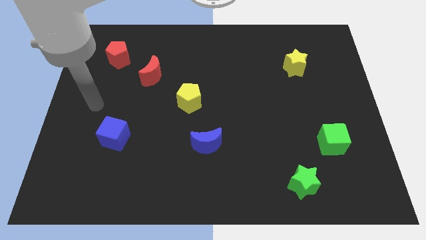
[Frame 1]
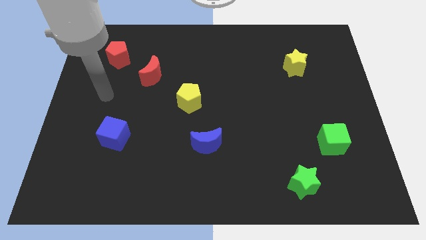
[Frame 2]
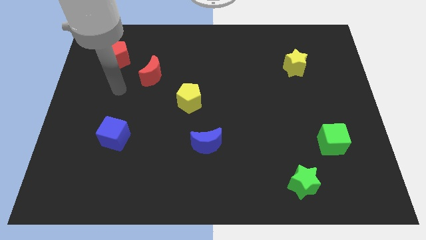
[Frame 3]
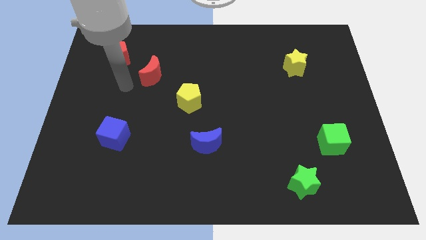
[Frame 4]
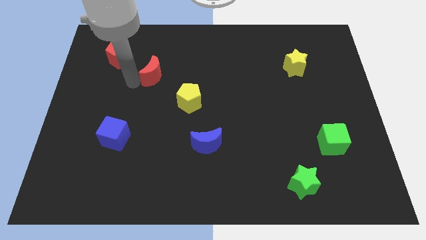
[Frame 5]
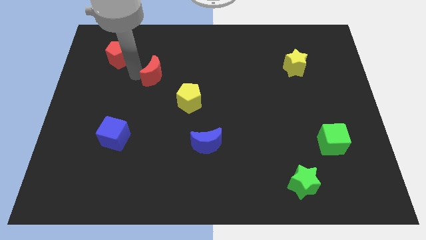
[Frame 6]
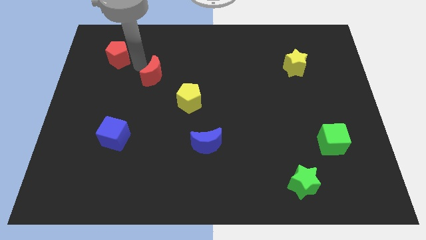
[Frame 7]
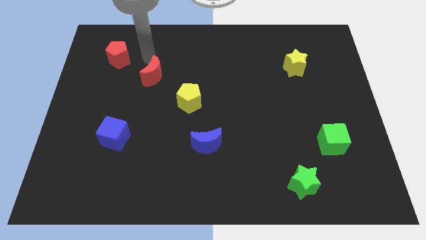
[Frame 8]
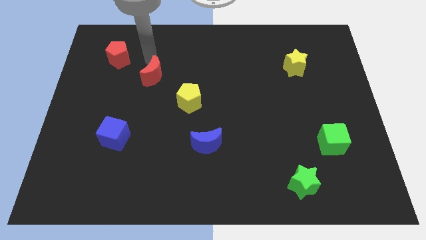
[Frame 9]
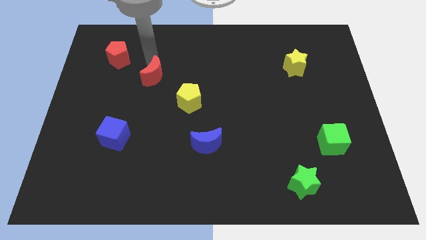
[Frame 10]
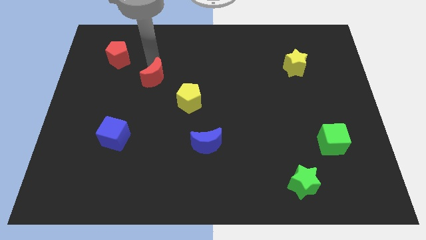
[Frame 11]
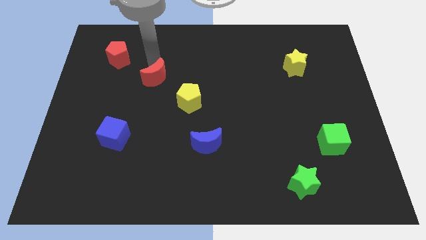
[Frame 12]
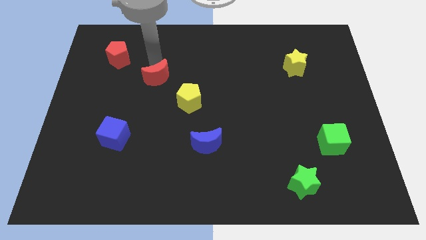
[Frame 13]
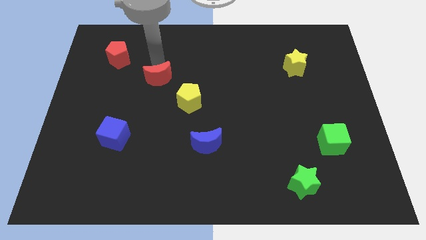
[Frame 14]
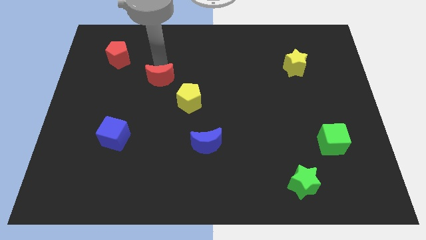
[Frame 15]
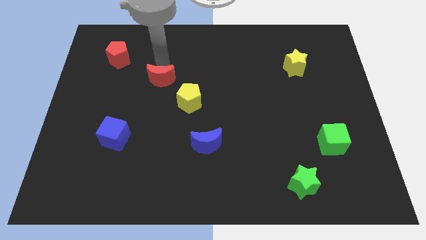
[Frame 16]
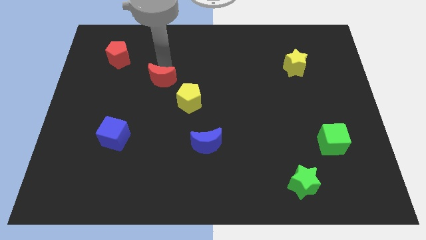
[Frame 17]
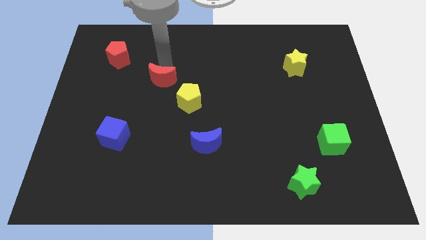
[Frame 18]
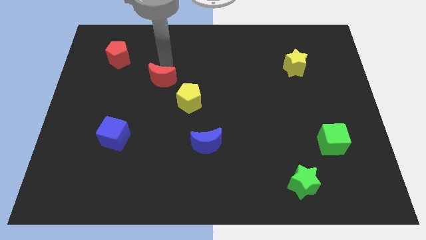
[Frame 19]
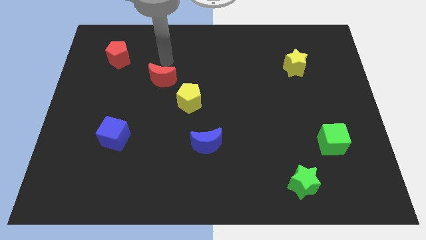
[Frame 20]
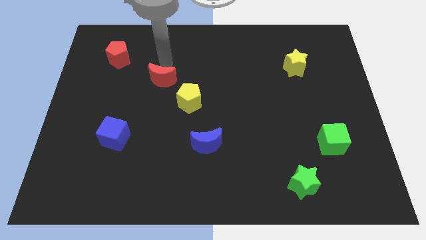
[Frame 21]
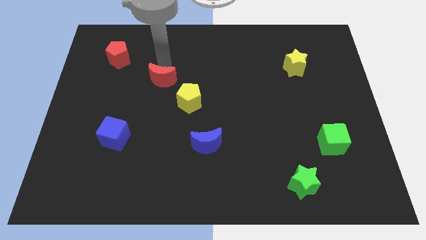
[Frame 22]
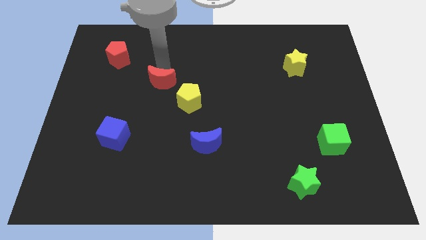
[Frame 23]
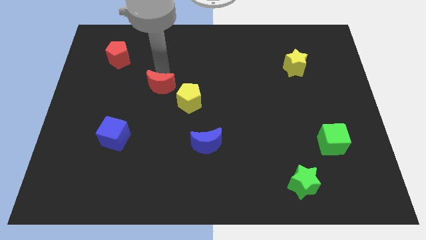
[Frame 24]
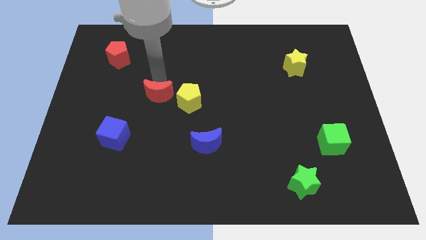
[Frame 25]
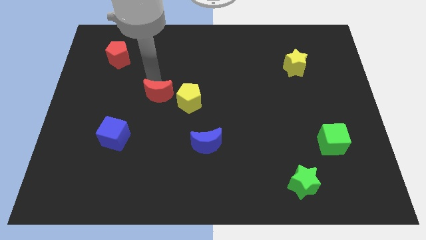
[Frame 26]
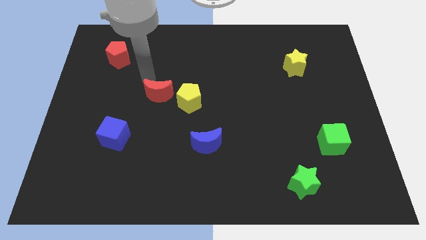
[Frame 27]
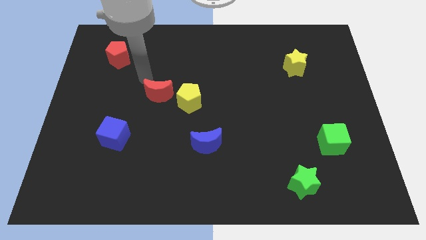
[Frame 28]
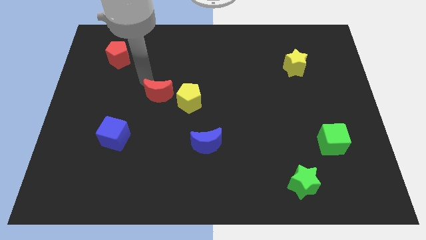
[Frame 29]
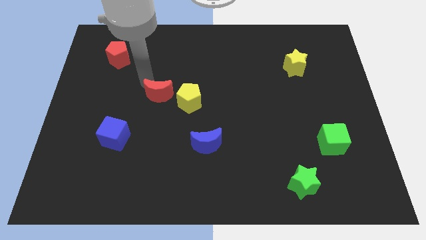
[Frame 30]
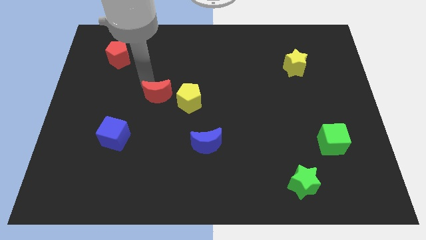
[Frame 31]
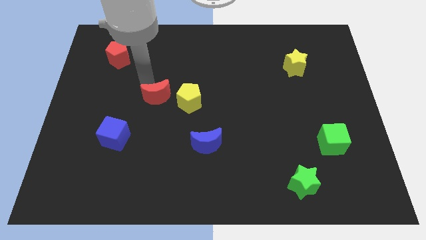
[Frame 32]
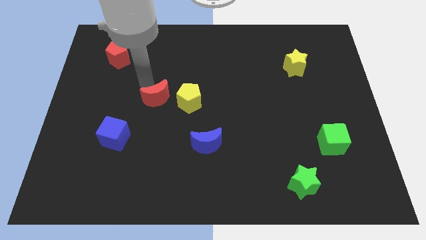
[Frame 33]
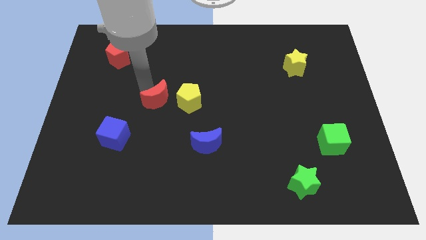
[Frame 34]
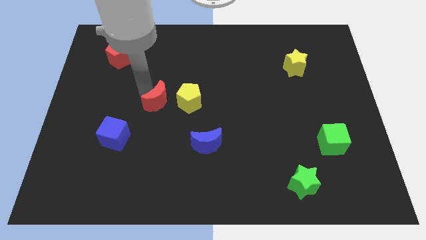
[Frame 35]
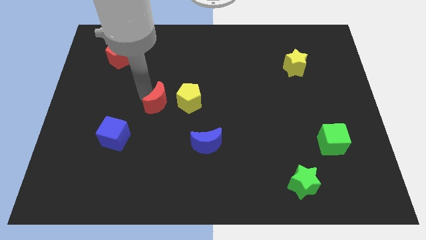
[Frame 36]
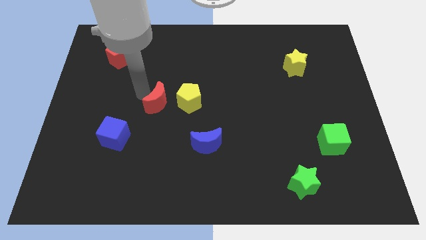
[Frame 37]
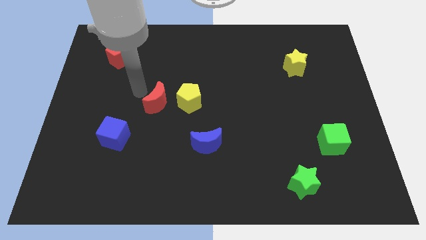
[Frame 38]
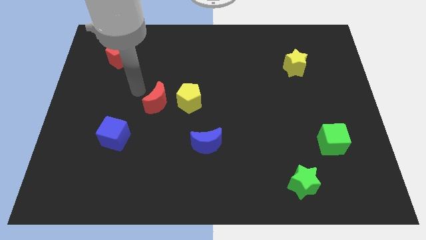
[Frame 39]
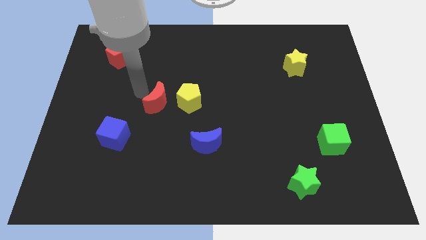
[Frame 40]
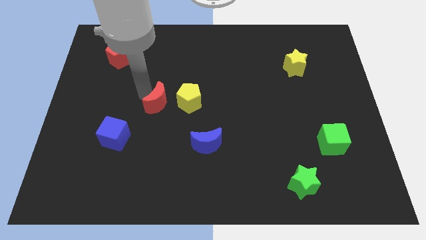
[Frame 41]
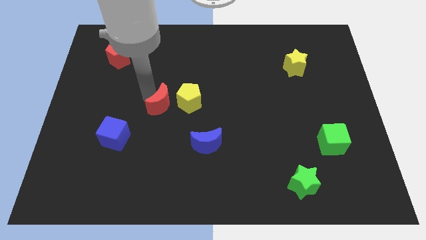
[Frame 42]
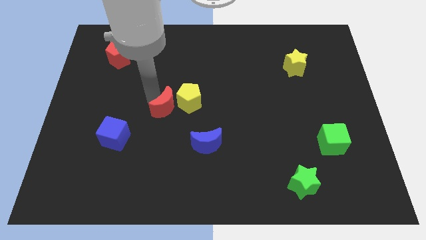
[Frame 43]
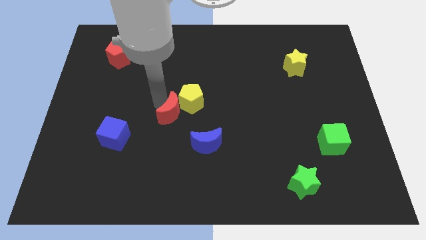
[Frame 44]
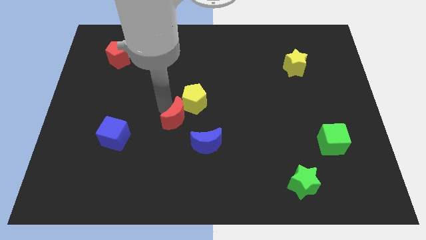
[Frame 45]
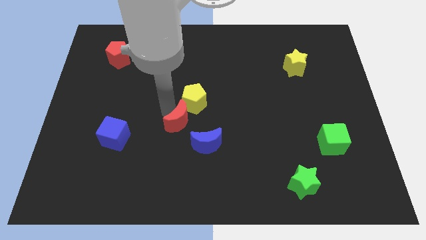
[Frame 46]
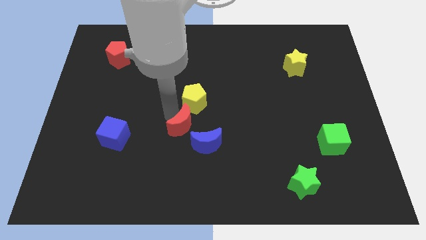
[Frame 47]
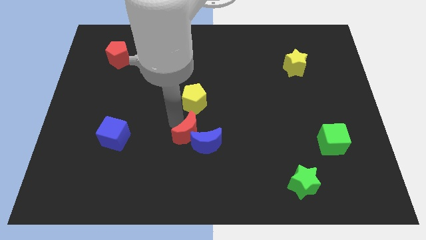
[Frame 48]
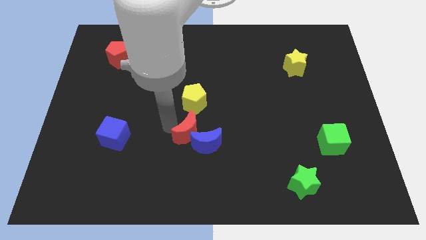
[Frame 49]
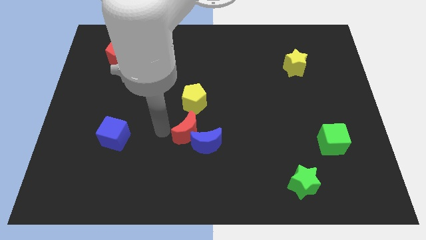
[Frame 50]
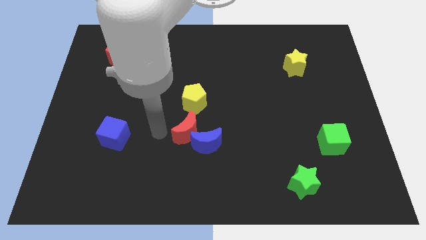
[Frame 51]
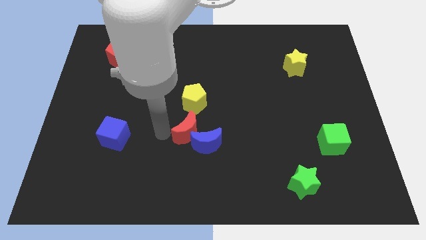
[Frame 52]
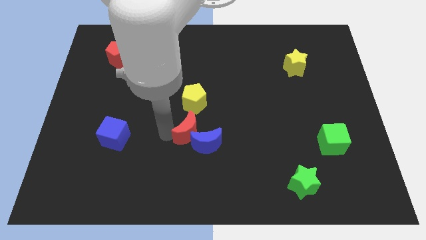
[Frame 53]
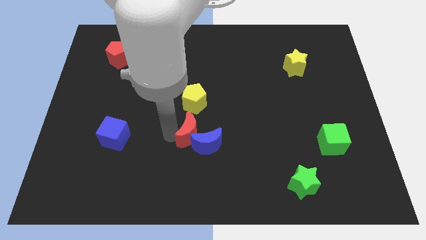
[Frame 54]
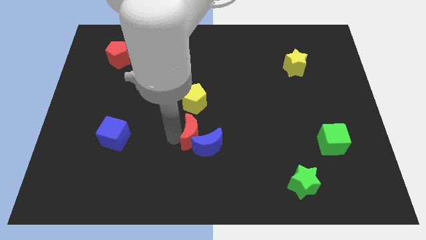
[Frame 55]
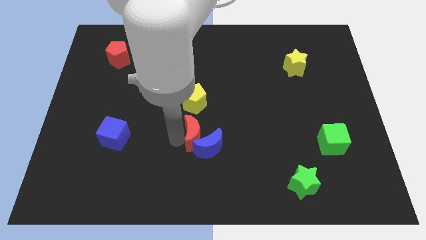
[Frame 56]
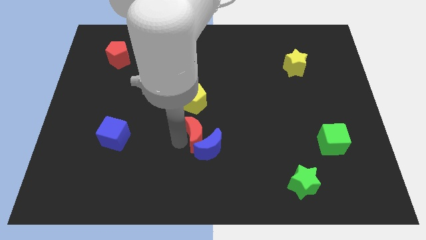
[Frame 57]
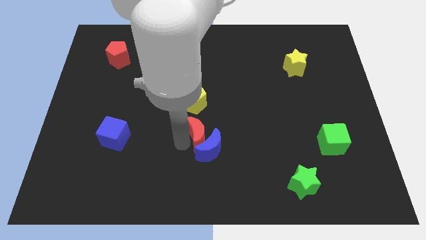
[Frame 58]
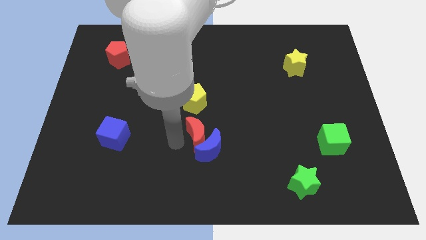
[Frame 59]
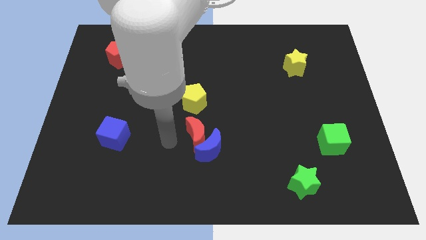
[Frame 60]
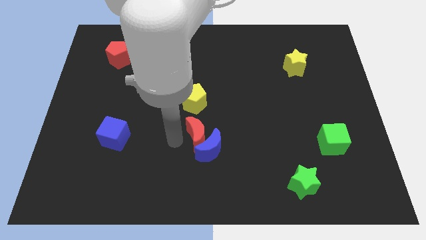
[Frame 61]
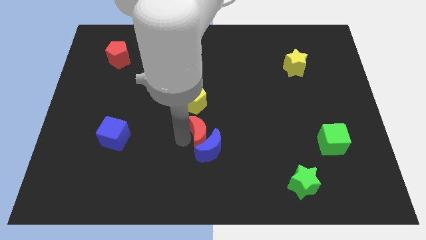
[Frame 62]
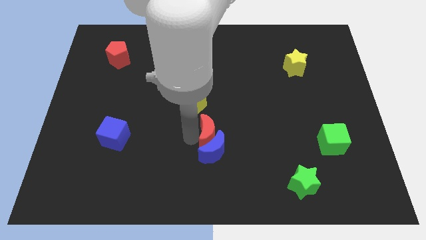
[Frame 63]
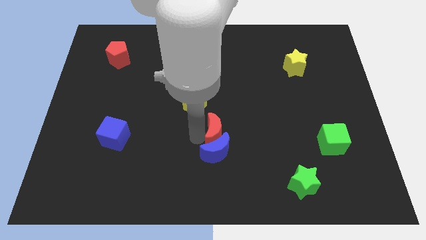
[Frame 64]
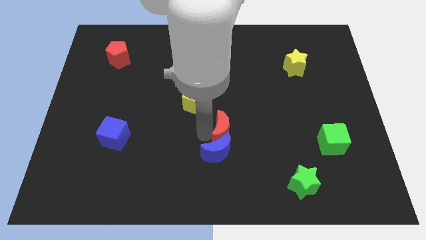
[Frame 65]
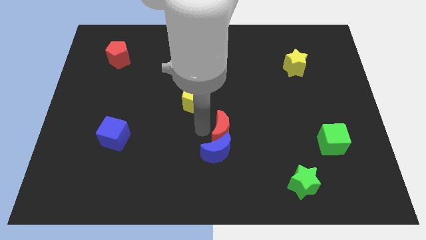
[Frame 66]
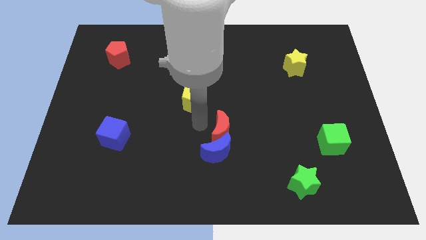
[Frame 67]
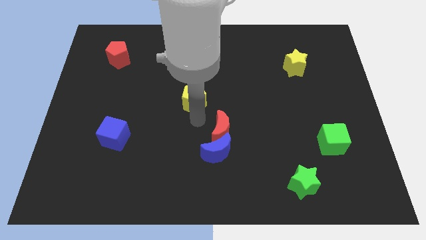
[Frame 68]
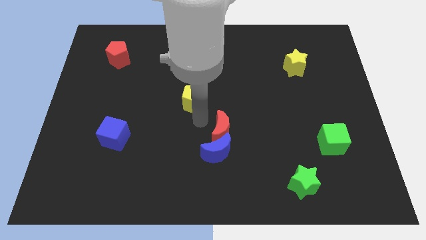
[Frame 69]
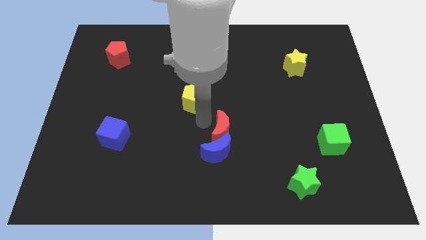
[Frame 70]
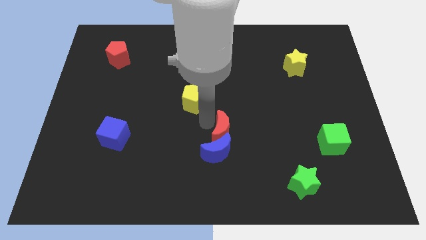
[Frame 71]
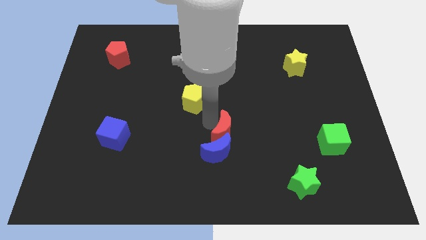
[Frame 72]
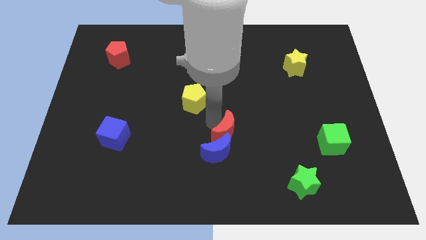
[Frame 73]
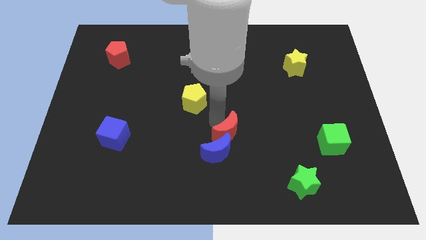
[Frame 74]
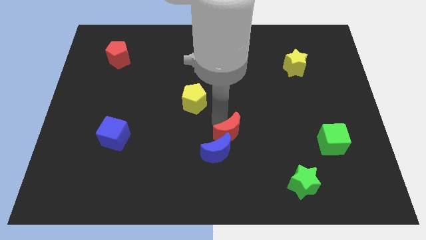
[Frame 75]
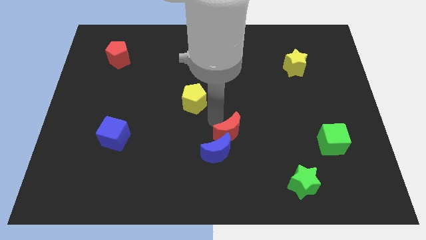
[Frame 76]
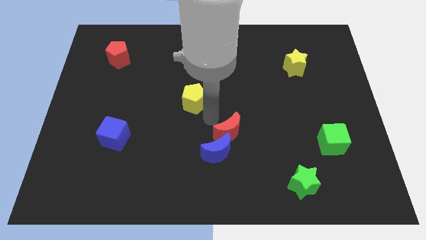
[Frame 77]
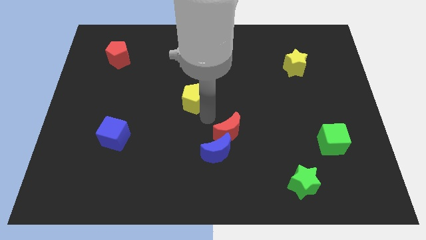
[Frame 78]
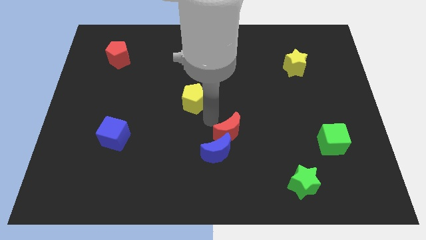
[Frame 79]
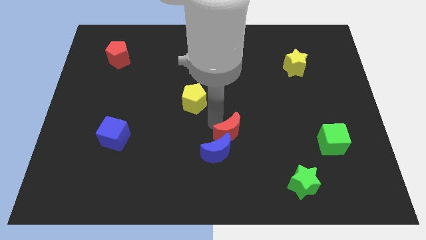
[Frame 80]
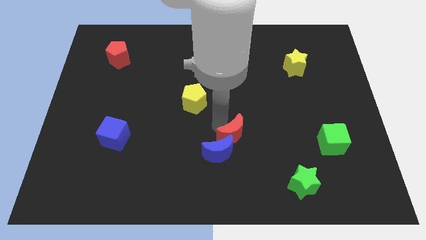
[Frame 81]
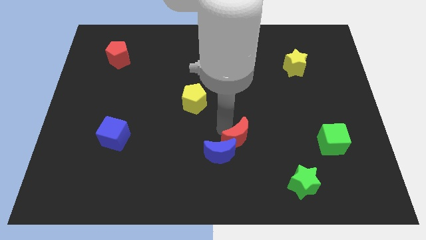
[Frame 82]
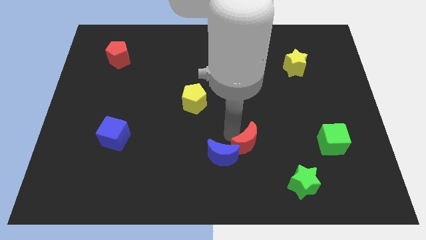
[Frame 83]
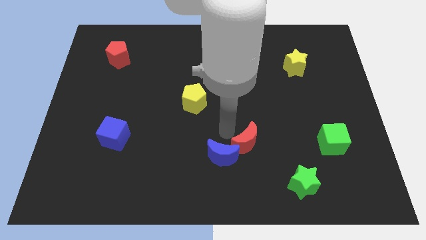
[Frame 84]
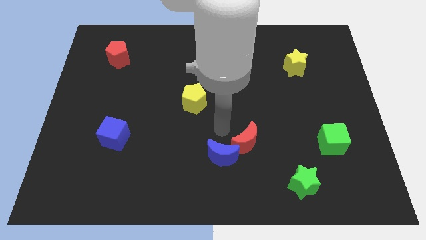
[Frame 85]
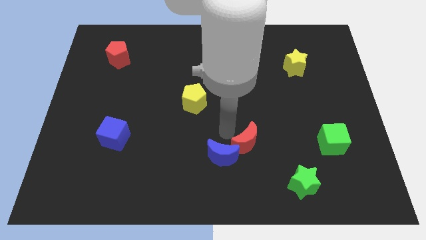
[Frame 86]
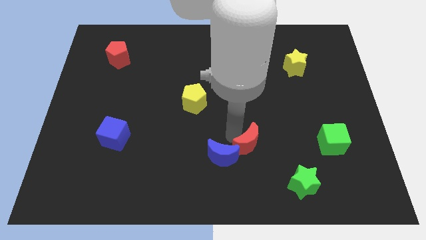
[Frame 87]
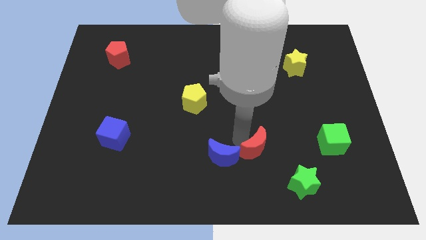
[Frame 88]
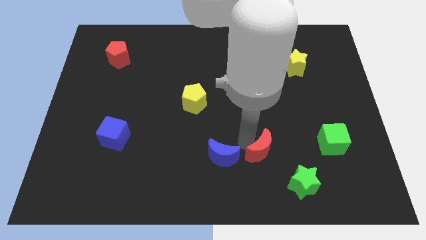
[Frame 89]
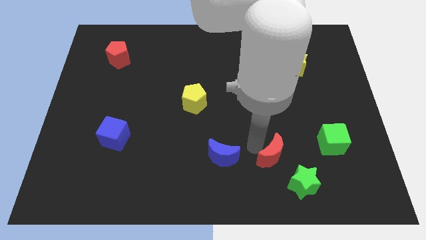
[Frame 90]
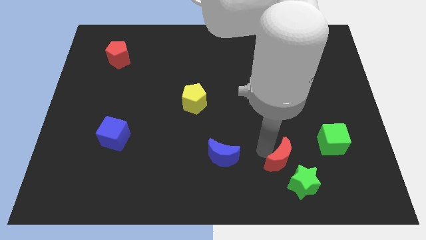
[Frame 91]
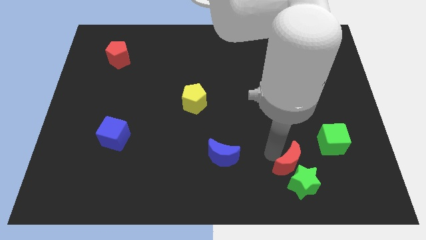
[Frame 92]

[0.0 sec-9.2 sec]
slide the red moon to the green star
